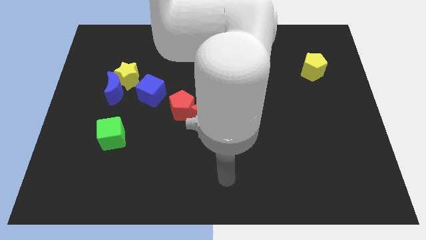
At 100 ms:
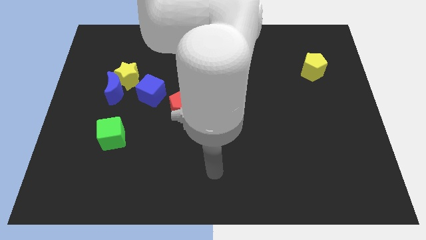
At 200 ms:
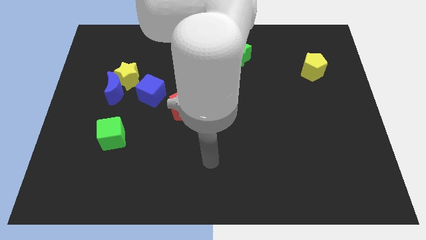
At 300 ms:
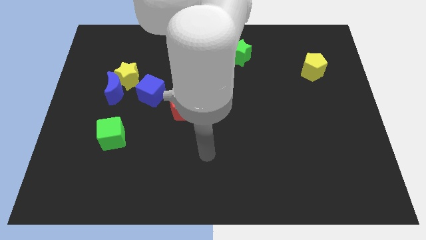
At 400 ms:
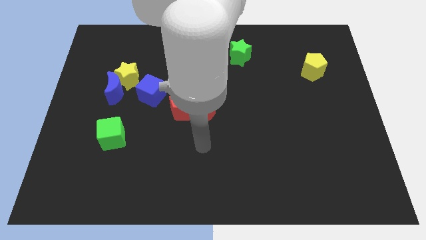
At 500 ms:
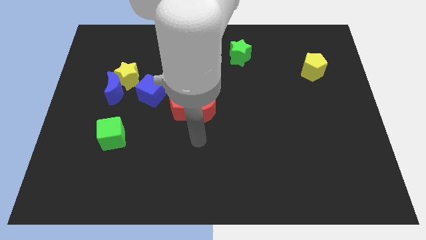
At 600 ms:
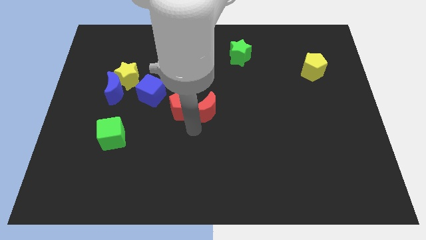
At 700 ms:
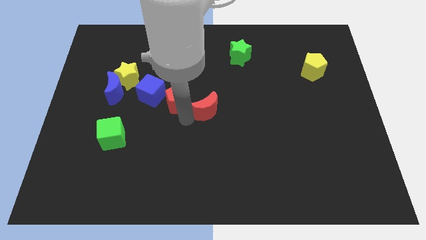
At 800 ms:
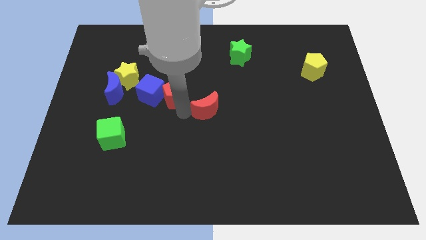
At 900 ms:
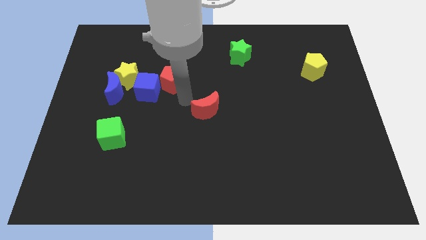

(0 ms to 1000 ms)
move the red moon away from the red pentagon

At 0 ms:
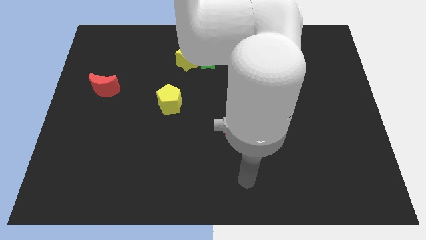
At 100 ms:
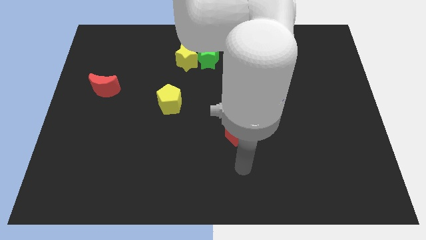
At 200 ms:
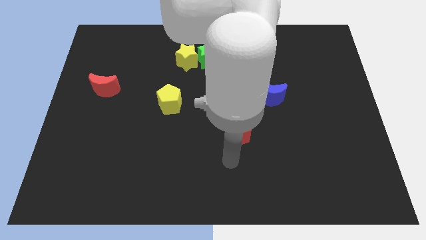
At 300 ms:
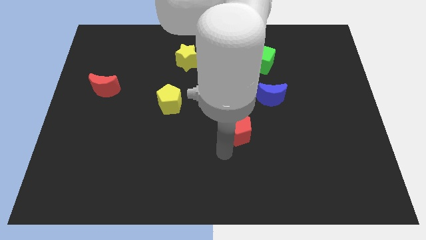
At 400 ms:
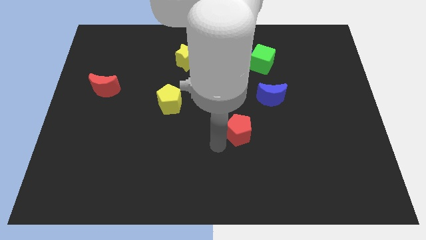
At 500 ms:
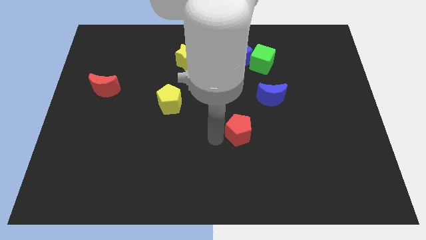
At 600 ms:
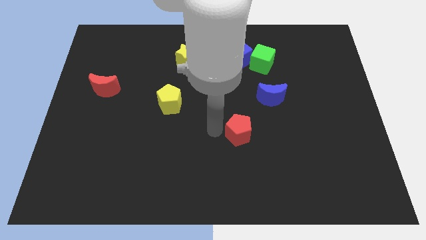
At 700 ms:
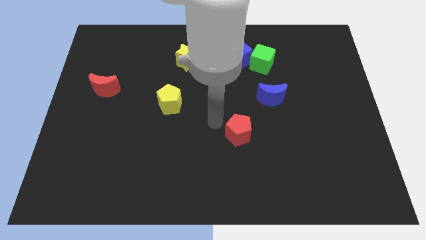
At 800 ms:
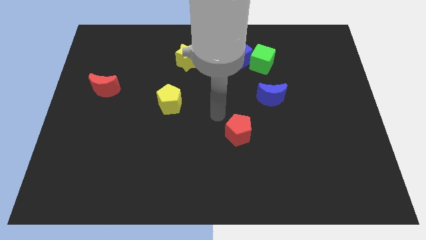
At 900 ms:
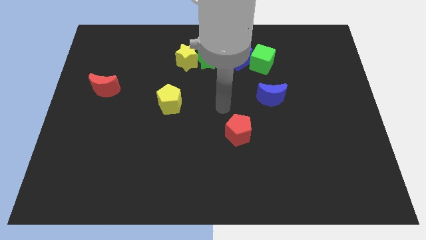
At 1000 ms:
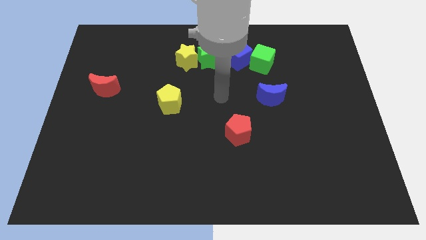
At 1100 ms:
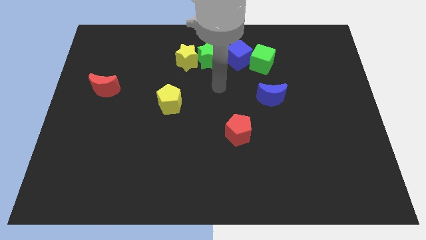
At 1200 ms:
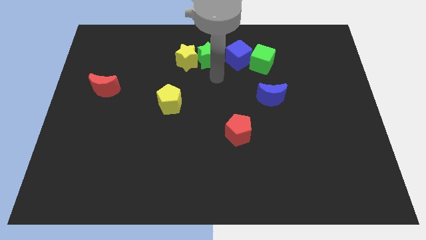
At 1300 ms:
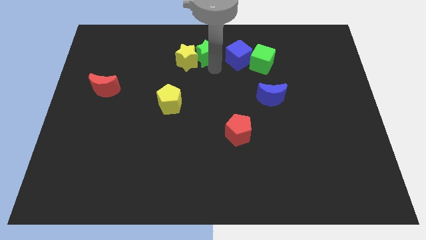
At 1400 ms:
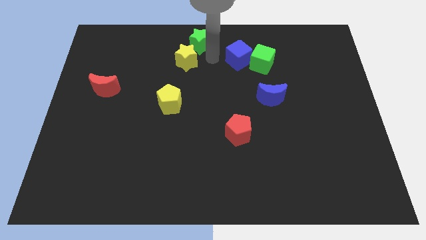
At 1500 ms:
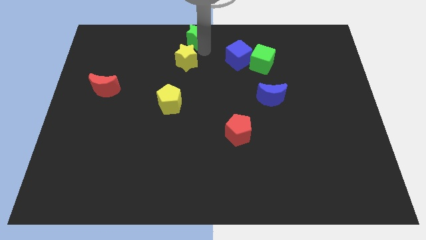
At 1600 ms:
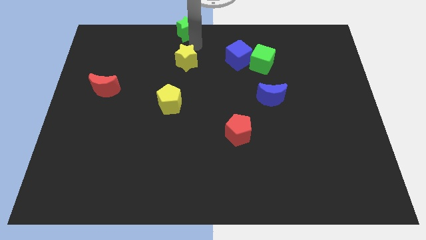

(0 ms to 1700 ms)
pull the yellow star apart from the green star

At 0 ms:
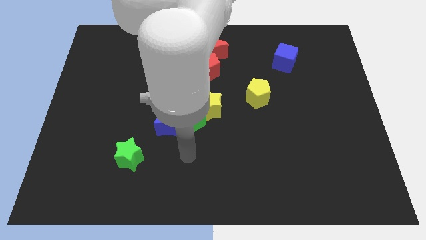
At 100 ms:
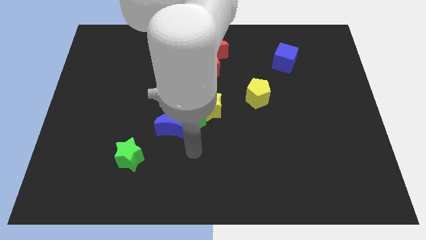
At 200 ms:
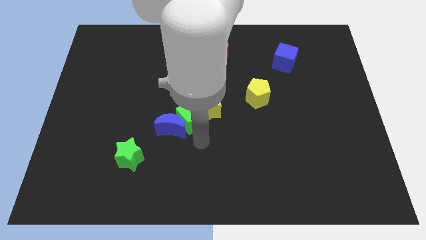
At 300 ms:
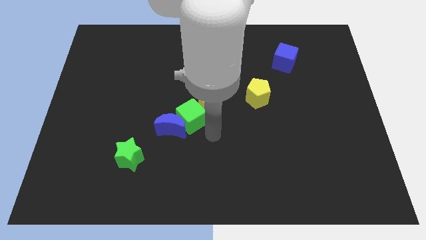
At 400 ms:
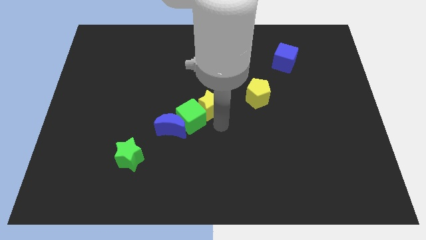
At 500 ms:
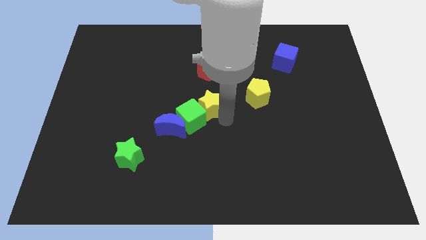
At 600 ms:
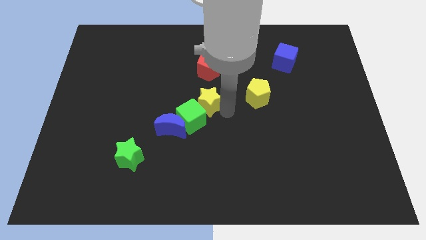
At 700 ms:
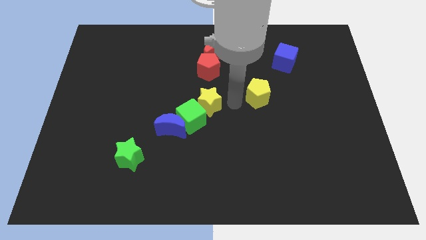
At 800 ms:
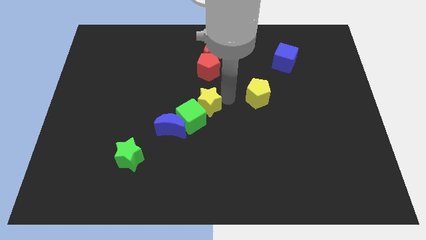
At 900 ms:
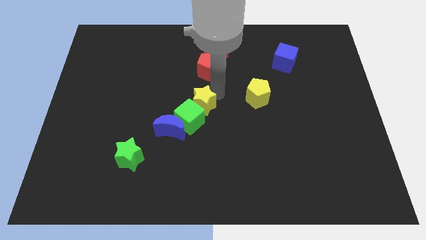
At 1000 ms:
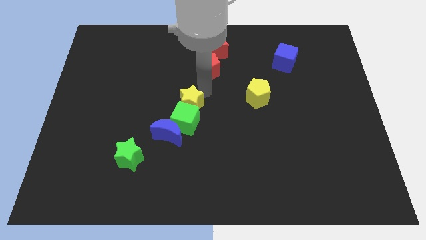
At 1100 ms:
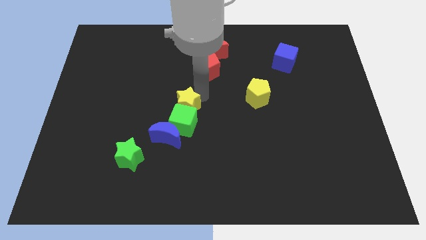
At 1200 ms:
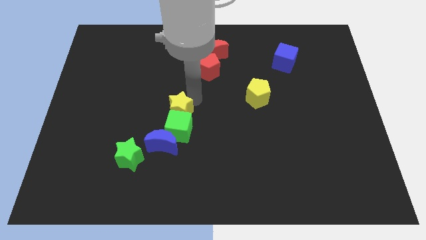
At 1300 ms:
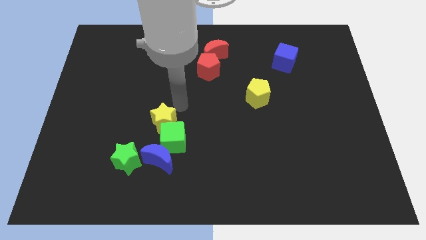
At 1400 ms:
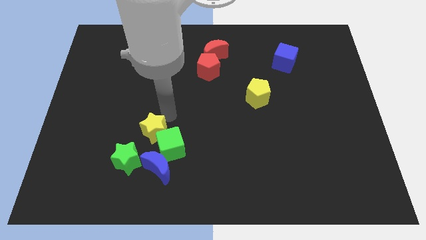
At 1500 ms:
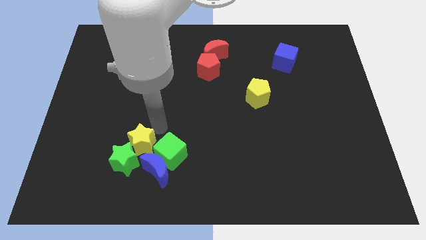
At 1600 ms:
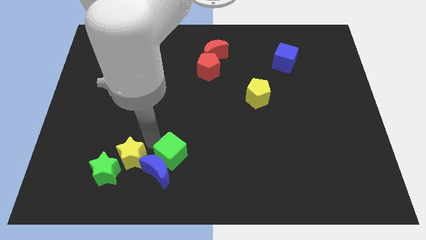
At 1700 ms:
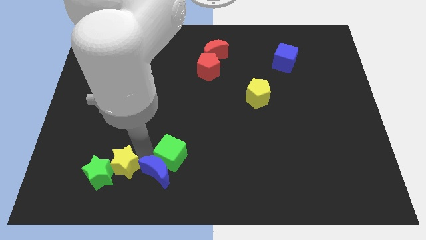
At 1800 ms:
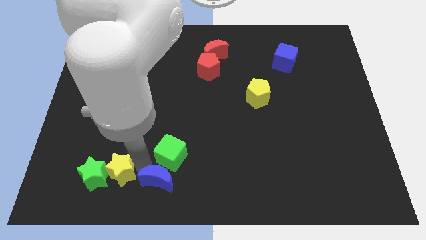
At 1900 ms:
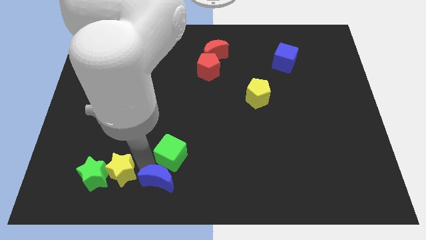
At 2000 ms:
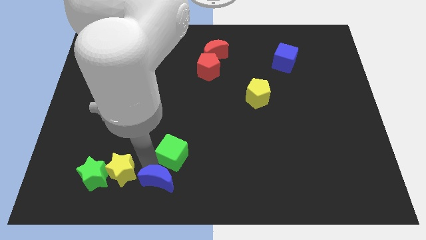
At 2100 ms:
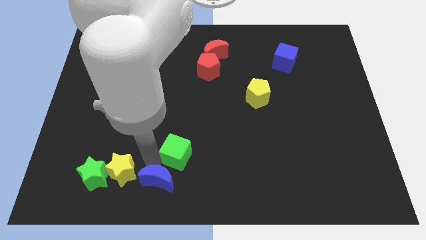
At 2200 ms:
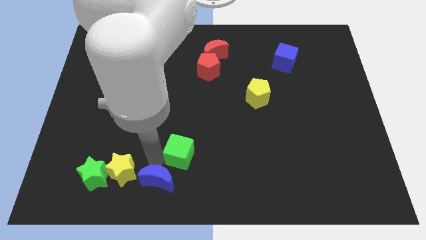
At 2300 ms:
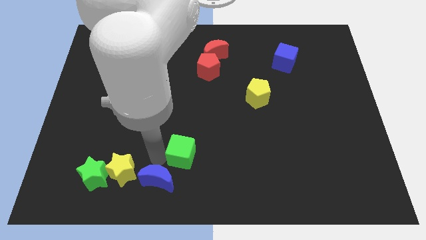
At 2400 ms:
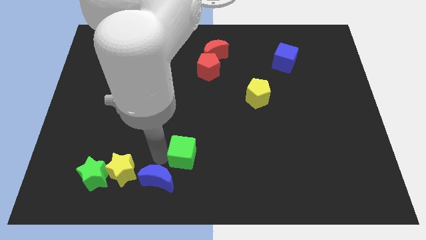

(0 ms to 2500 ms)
separate the green cube from the blue moon and yellow star

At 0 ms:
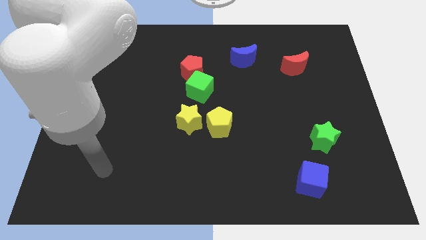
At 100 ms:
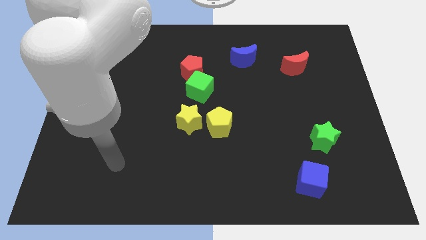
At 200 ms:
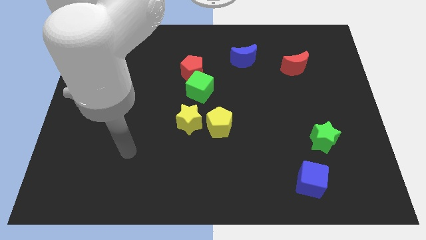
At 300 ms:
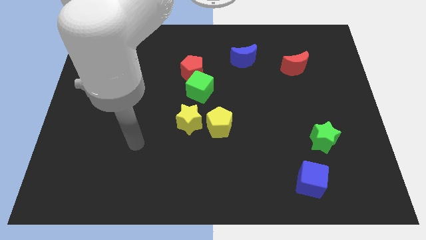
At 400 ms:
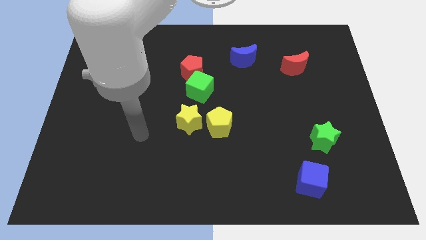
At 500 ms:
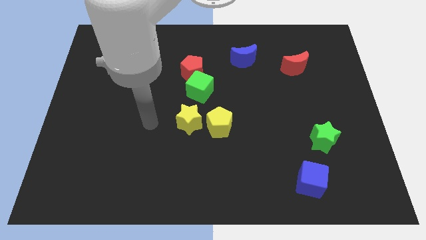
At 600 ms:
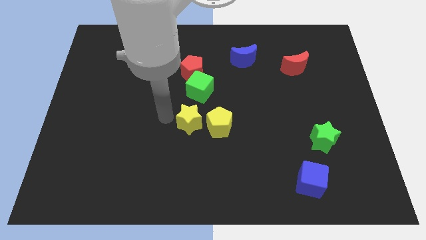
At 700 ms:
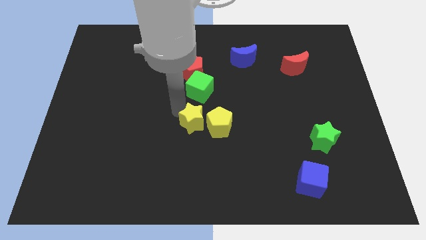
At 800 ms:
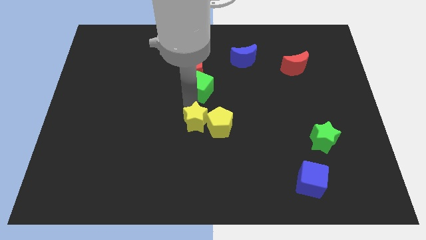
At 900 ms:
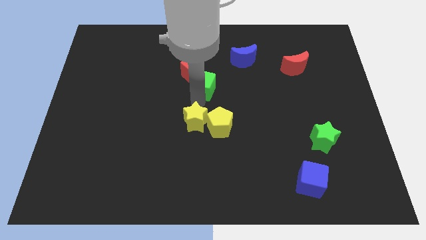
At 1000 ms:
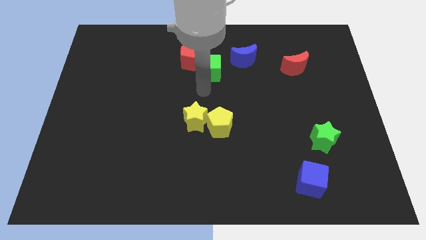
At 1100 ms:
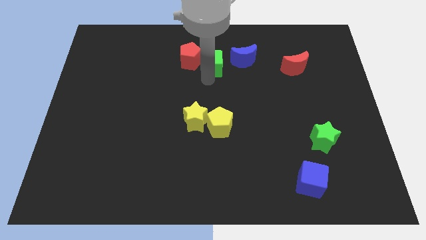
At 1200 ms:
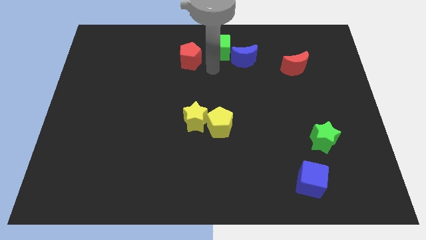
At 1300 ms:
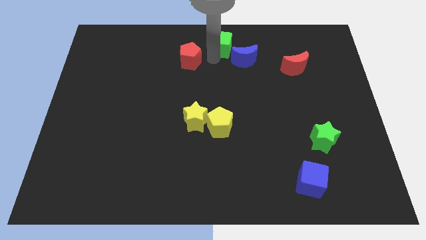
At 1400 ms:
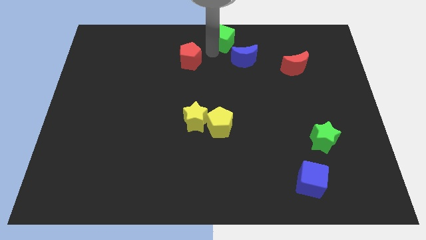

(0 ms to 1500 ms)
pull the red pentagon apart from the green cube

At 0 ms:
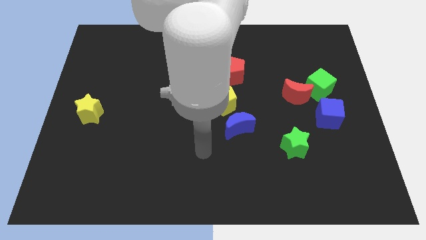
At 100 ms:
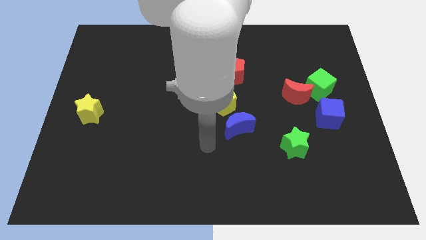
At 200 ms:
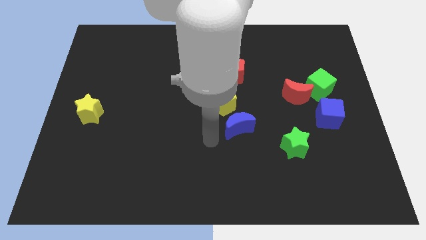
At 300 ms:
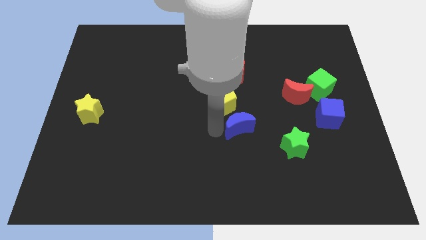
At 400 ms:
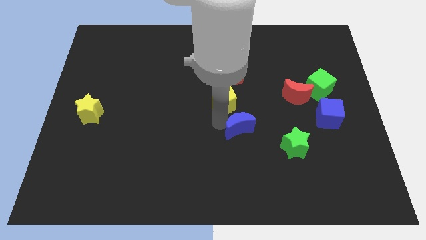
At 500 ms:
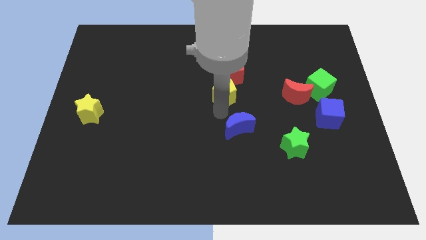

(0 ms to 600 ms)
pull the blue moon apart from the yellow pentagon

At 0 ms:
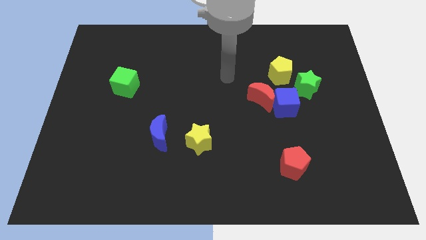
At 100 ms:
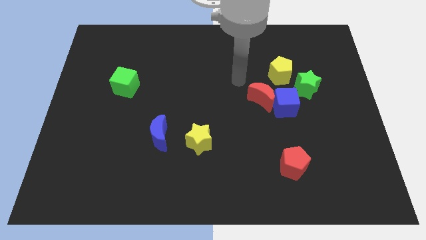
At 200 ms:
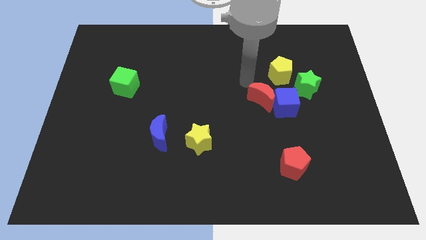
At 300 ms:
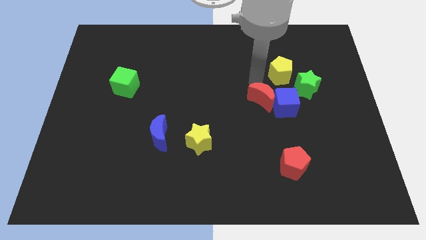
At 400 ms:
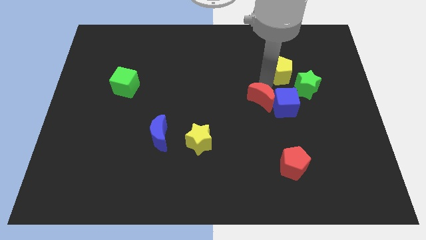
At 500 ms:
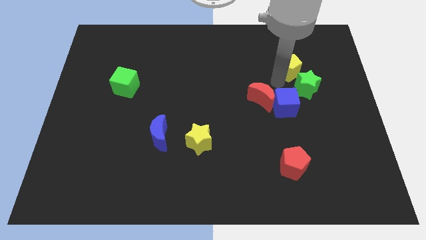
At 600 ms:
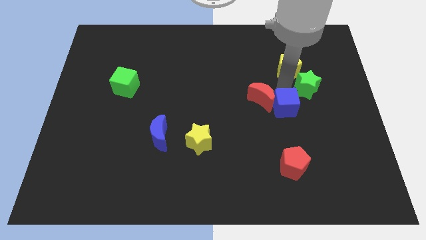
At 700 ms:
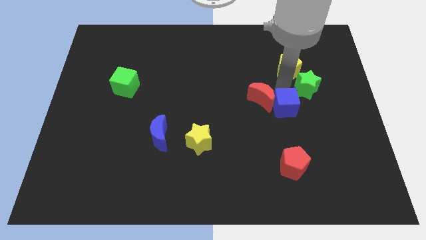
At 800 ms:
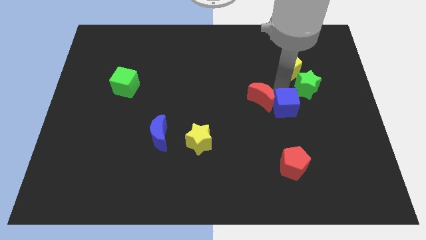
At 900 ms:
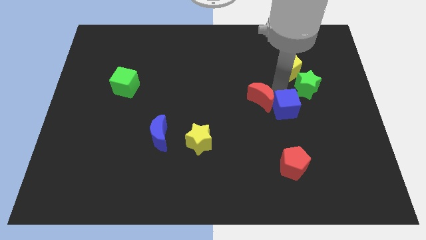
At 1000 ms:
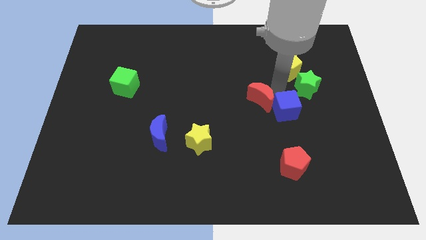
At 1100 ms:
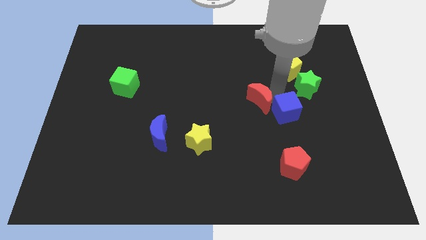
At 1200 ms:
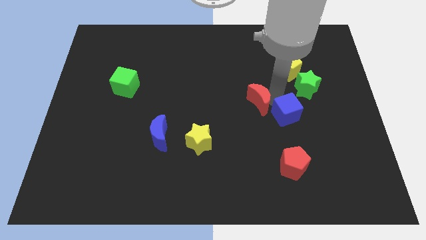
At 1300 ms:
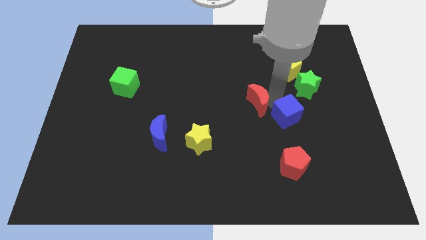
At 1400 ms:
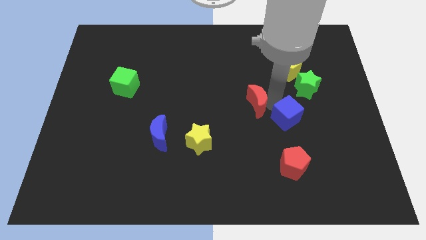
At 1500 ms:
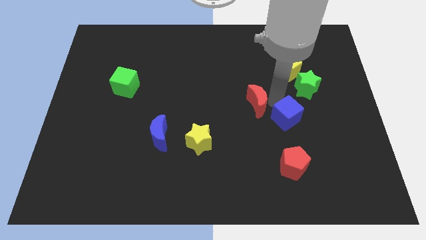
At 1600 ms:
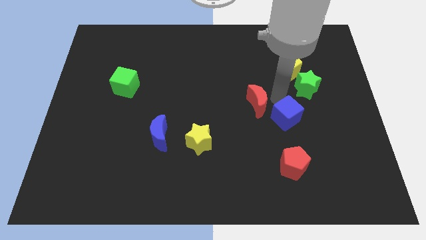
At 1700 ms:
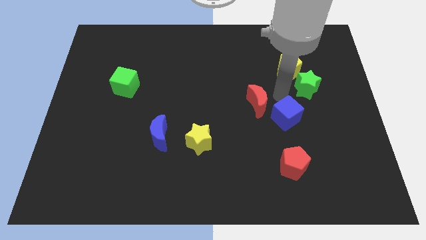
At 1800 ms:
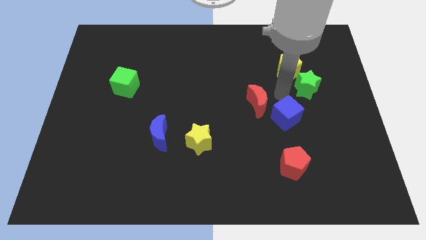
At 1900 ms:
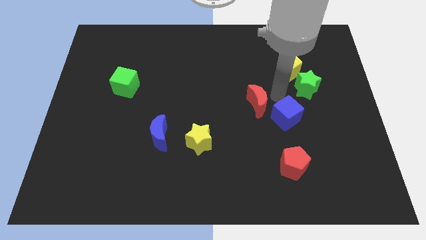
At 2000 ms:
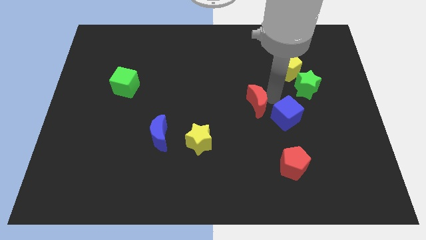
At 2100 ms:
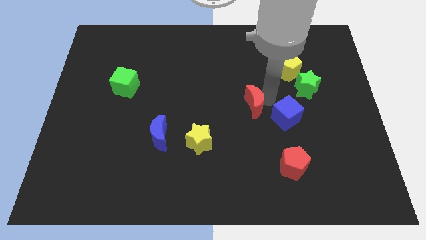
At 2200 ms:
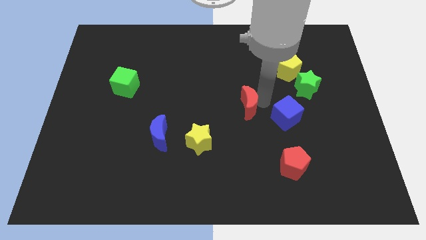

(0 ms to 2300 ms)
separate the red moon from the blue cube and yellow pentagon
